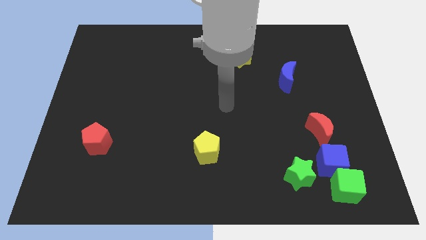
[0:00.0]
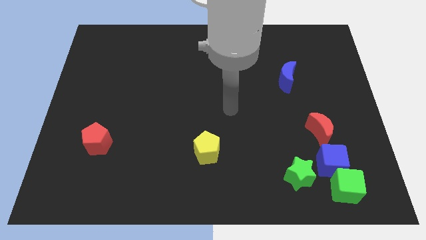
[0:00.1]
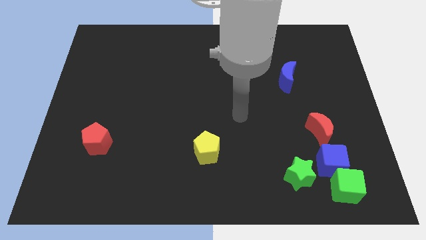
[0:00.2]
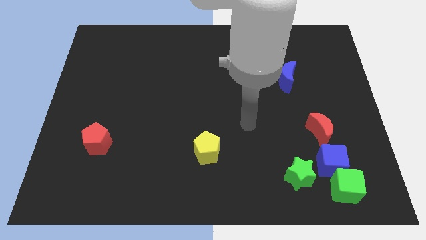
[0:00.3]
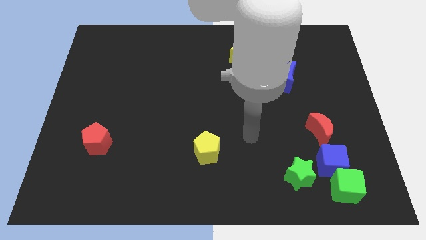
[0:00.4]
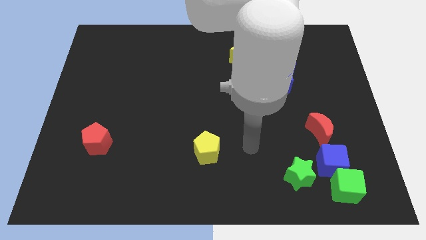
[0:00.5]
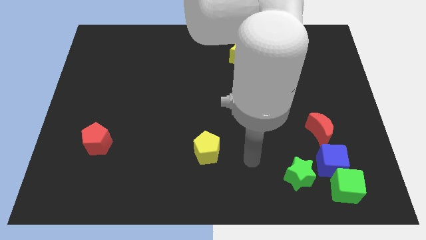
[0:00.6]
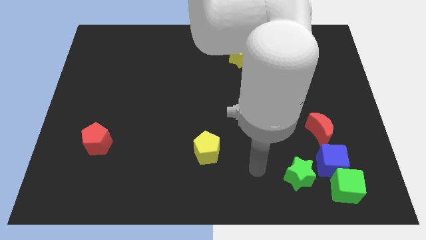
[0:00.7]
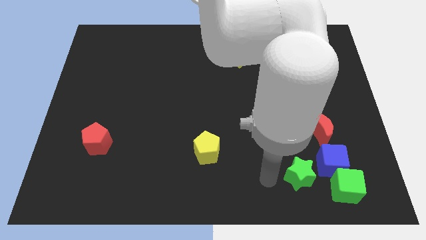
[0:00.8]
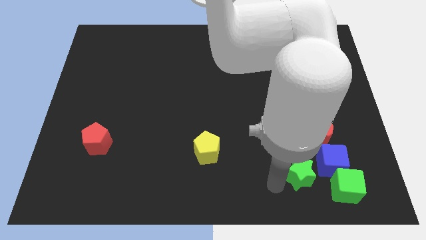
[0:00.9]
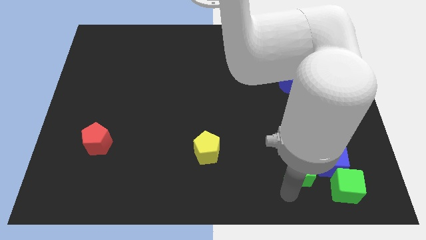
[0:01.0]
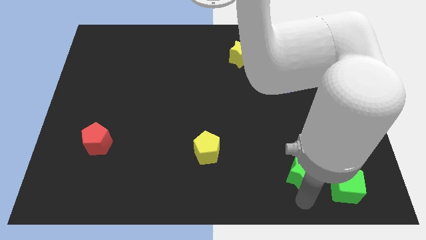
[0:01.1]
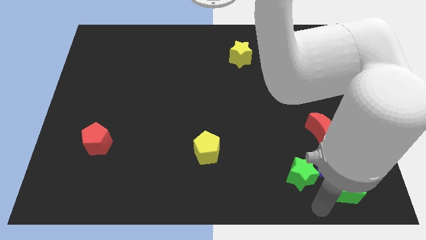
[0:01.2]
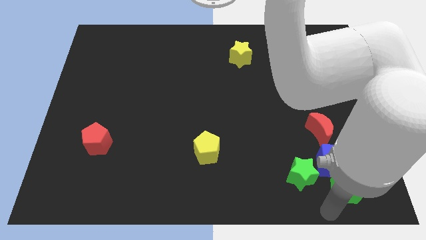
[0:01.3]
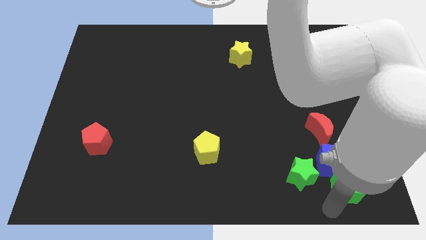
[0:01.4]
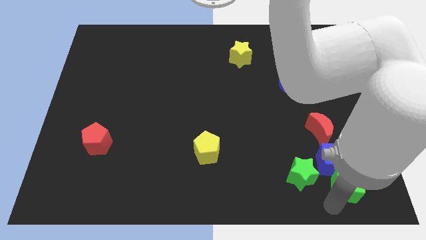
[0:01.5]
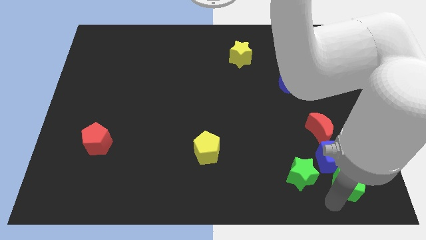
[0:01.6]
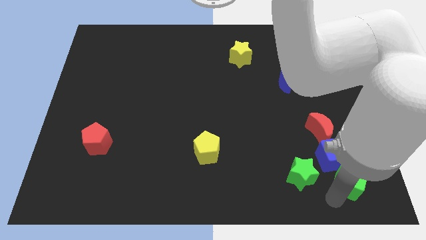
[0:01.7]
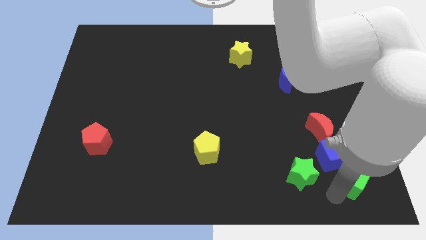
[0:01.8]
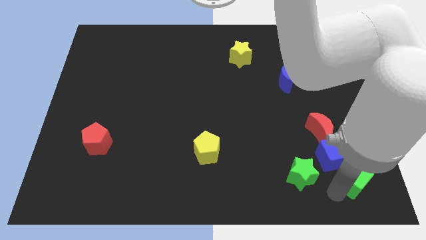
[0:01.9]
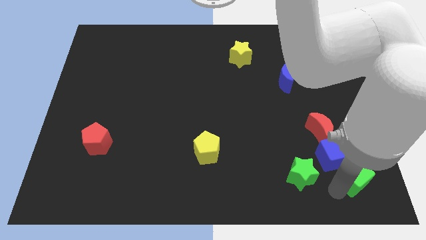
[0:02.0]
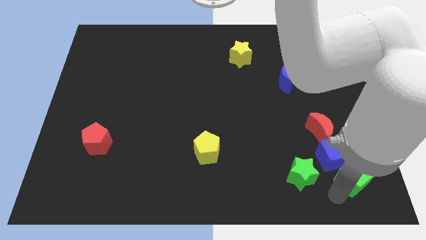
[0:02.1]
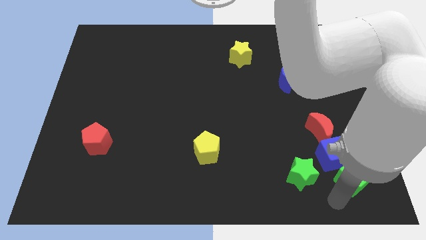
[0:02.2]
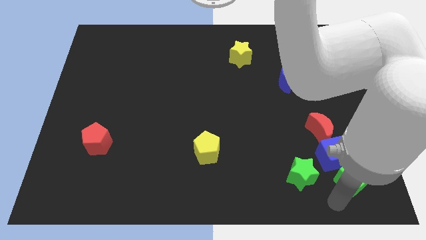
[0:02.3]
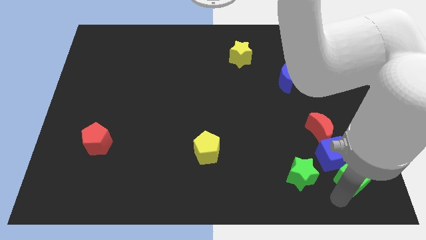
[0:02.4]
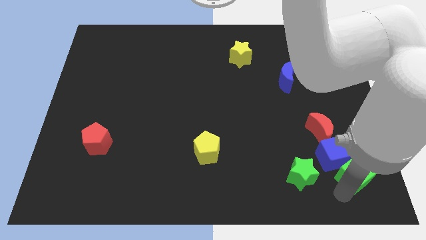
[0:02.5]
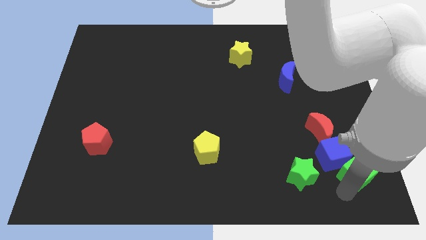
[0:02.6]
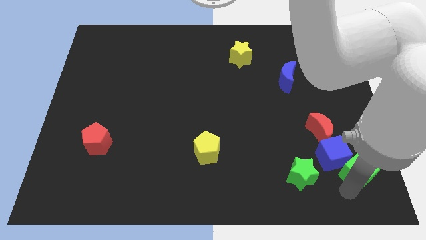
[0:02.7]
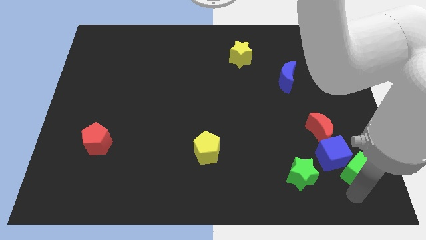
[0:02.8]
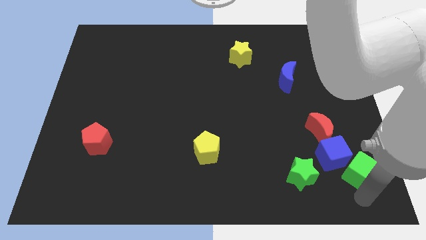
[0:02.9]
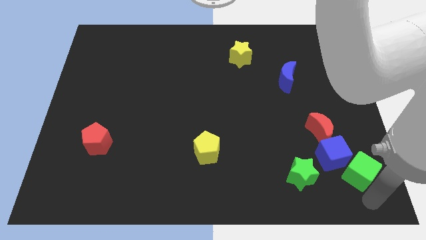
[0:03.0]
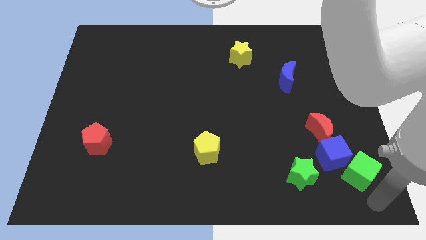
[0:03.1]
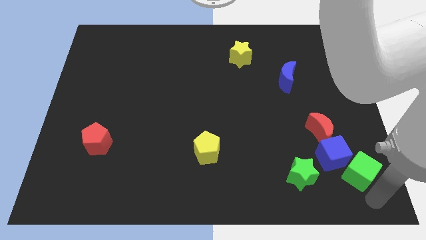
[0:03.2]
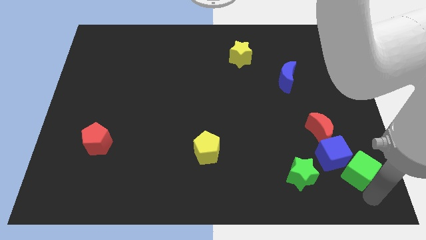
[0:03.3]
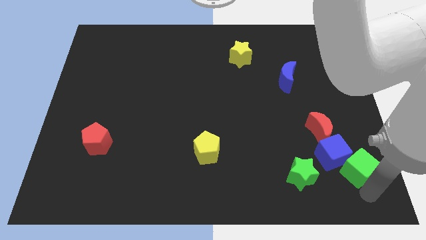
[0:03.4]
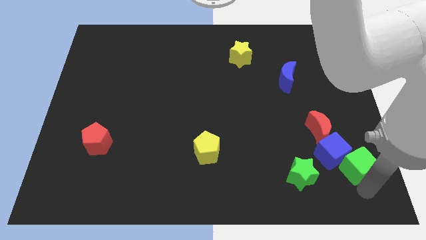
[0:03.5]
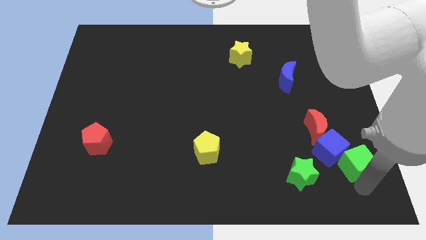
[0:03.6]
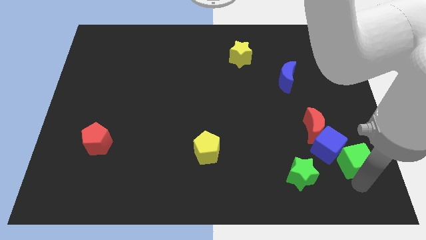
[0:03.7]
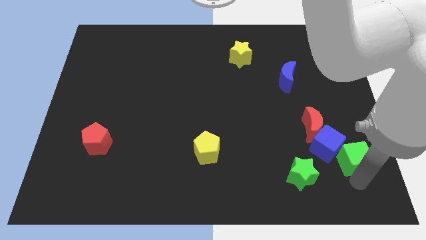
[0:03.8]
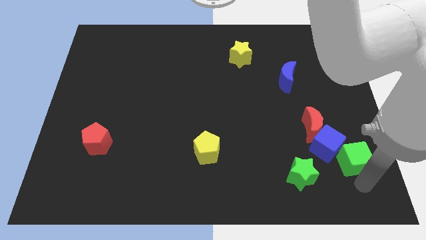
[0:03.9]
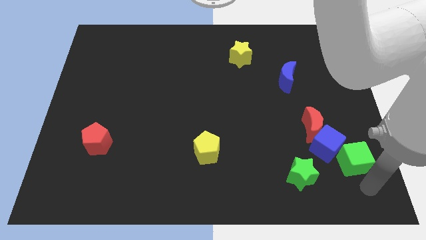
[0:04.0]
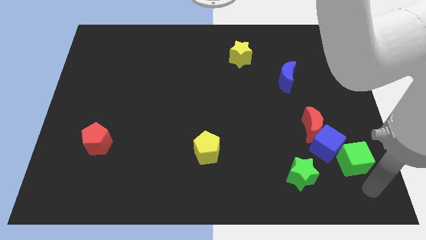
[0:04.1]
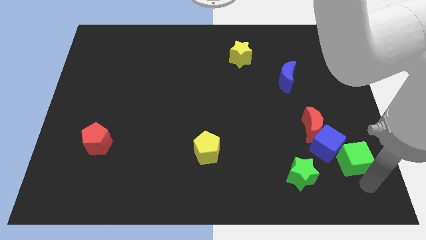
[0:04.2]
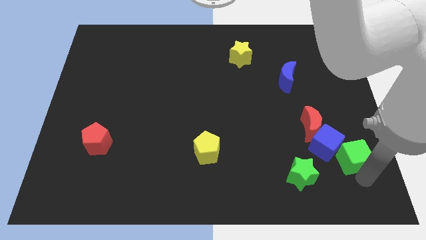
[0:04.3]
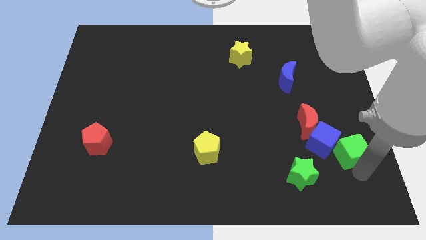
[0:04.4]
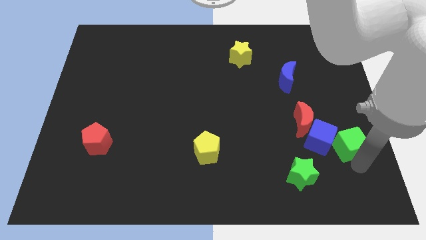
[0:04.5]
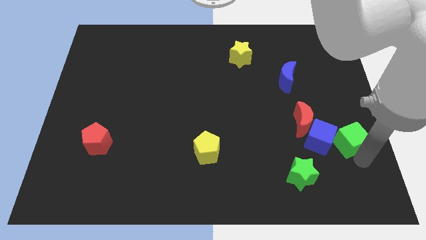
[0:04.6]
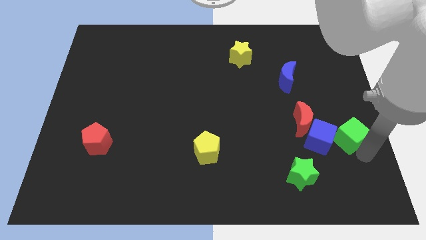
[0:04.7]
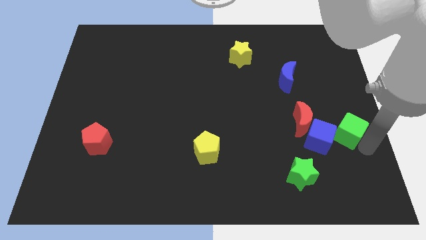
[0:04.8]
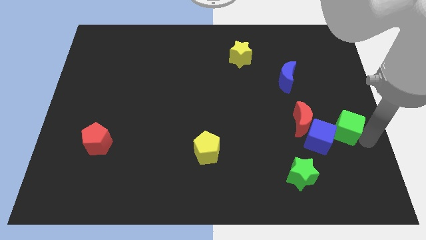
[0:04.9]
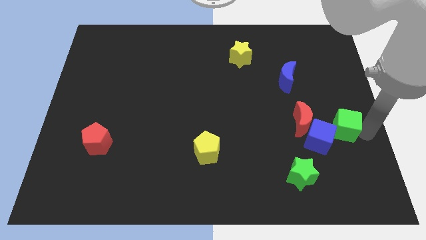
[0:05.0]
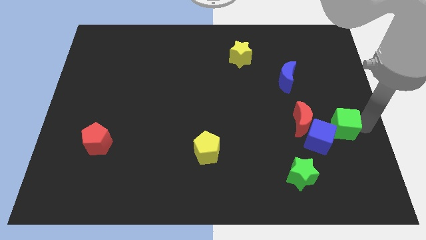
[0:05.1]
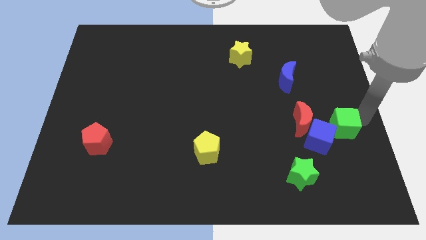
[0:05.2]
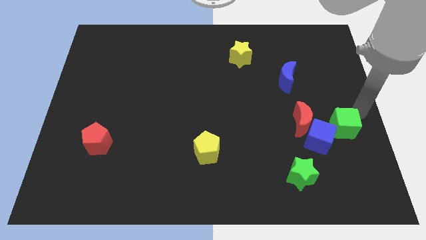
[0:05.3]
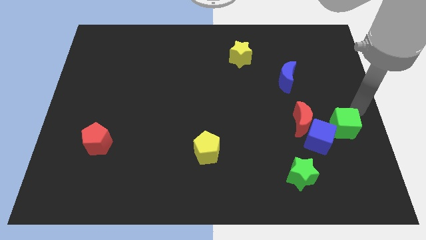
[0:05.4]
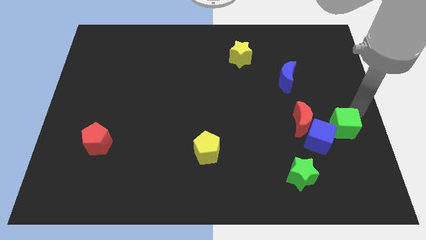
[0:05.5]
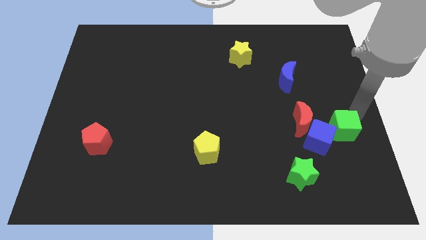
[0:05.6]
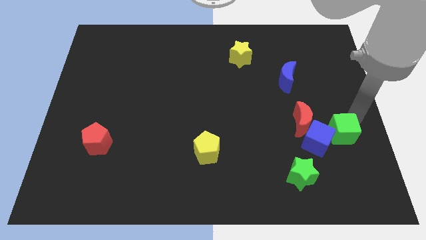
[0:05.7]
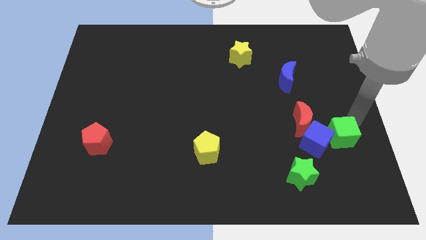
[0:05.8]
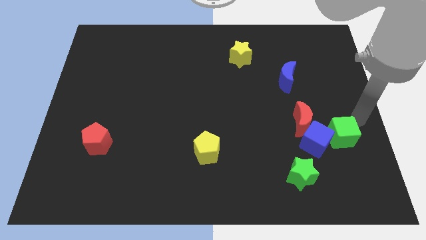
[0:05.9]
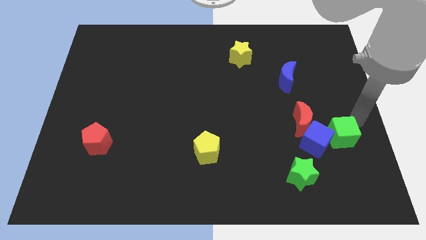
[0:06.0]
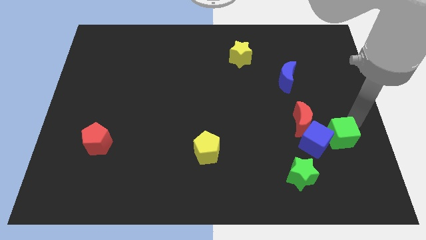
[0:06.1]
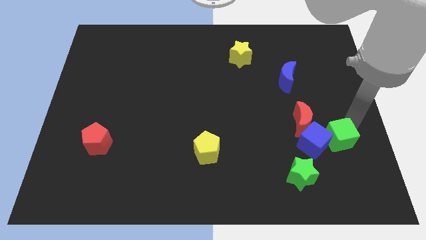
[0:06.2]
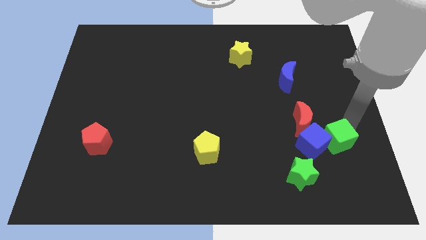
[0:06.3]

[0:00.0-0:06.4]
slide the green cube diagonally up and to the right of the green star

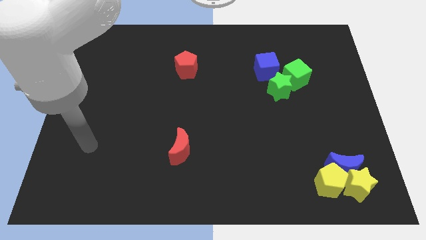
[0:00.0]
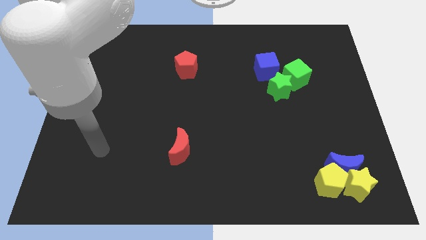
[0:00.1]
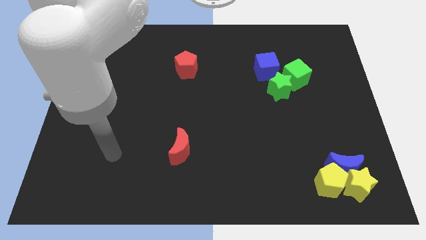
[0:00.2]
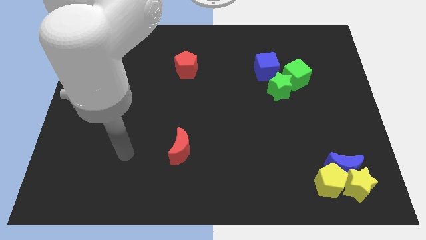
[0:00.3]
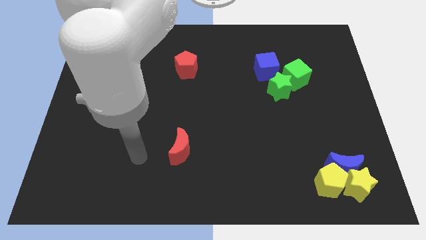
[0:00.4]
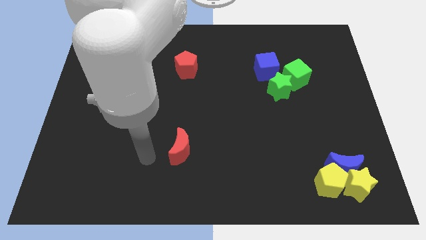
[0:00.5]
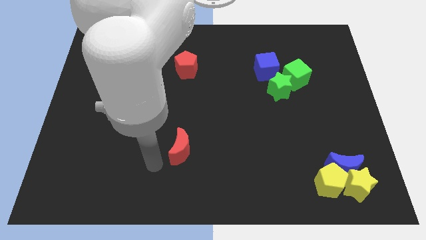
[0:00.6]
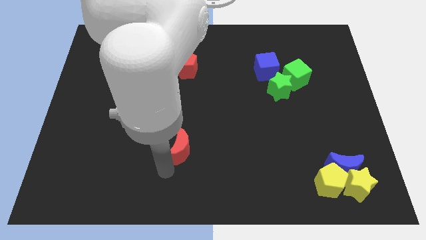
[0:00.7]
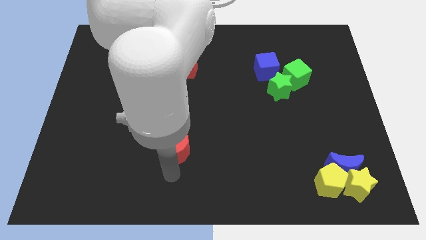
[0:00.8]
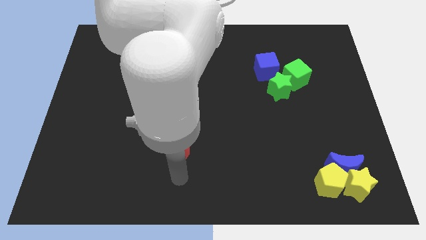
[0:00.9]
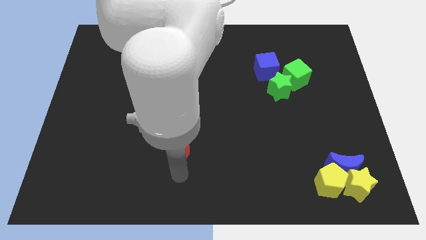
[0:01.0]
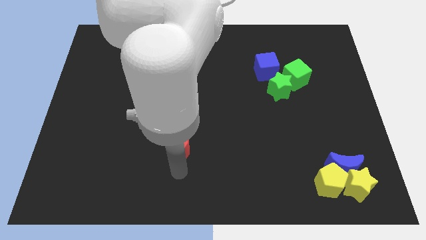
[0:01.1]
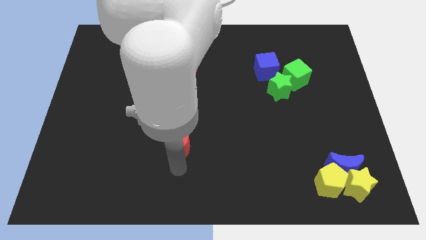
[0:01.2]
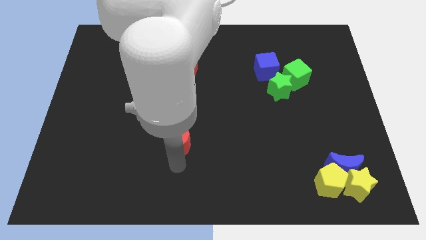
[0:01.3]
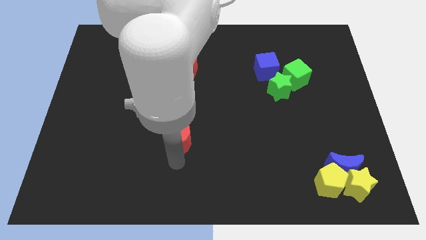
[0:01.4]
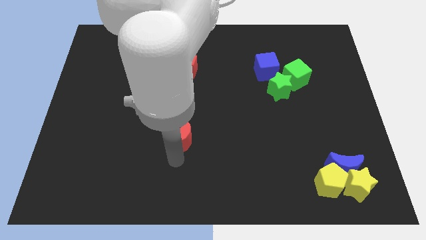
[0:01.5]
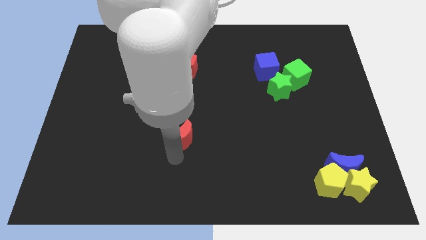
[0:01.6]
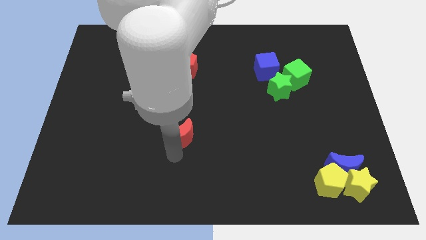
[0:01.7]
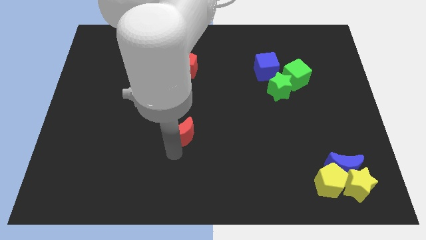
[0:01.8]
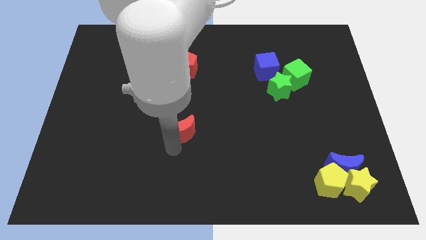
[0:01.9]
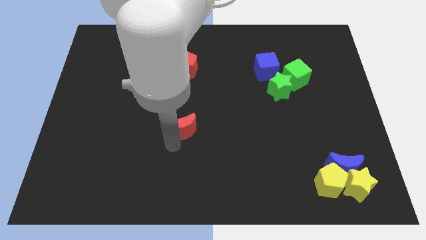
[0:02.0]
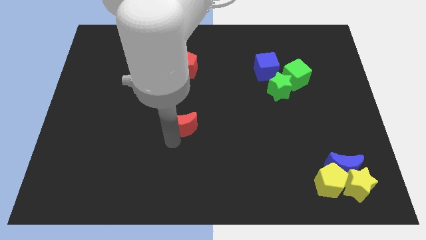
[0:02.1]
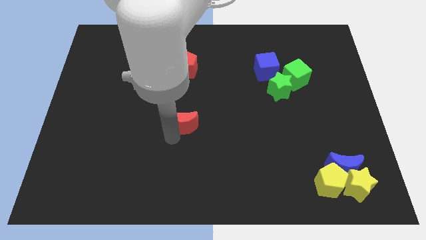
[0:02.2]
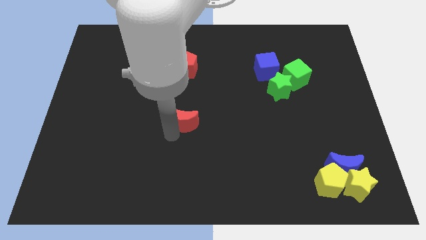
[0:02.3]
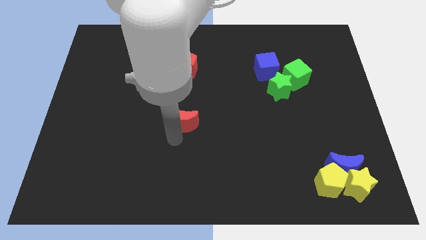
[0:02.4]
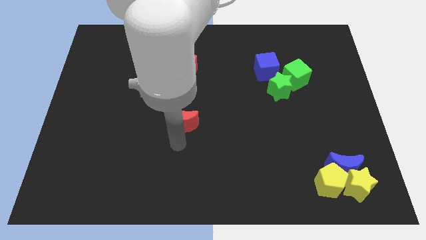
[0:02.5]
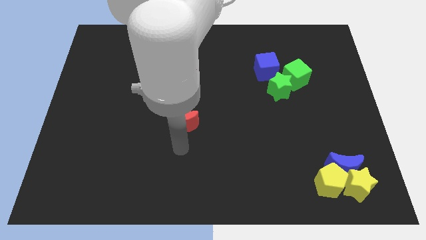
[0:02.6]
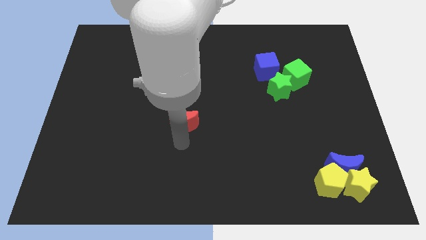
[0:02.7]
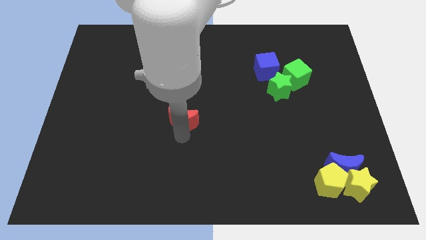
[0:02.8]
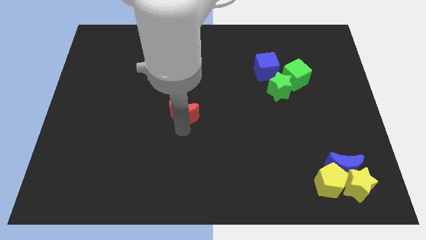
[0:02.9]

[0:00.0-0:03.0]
move the red moon below the red pentagon
